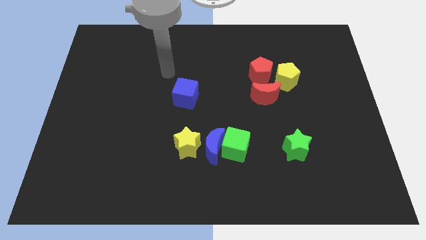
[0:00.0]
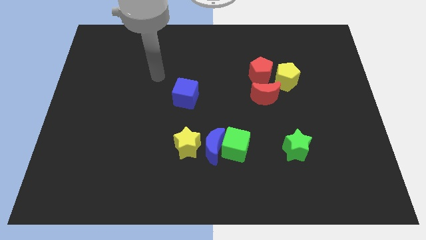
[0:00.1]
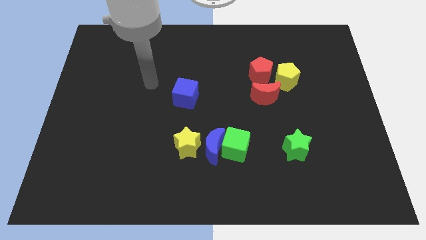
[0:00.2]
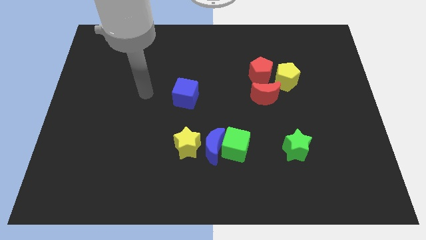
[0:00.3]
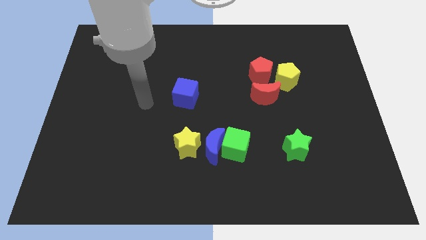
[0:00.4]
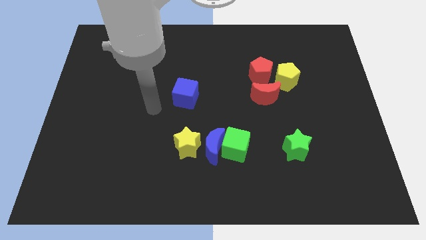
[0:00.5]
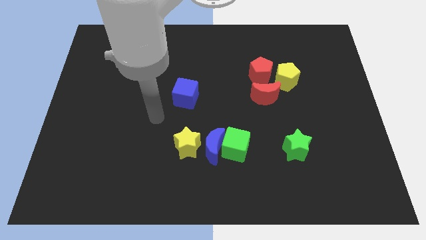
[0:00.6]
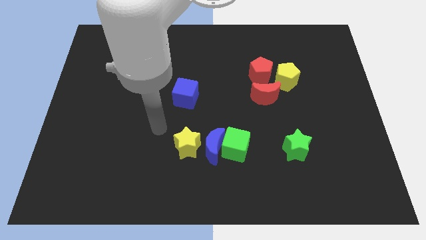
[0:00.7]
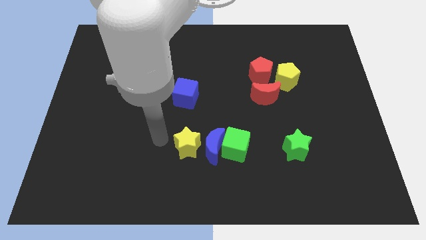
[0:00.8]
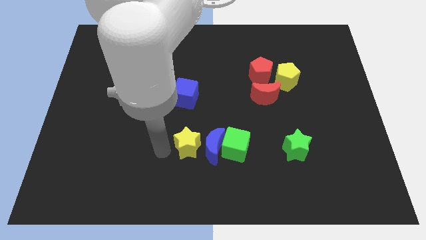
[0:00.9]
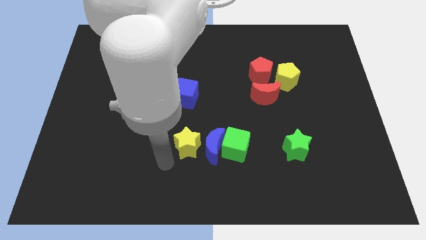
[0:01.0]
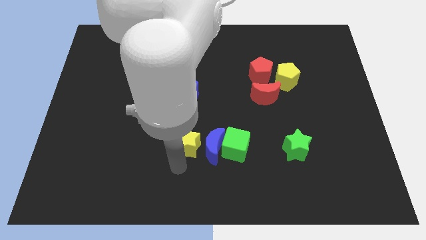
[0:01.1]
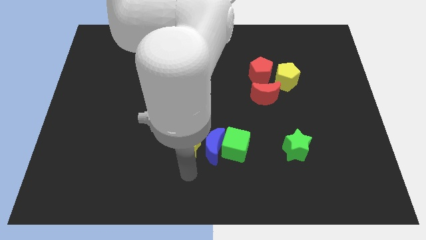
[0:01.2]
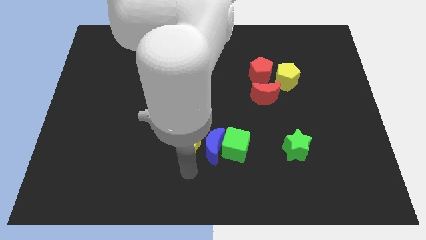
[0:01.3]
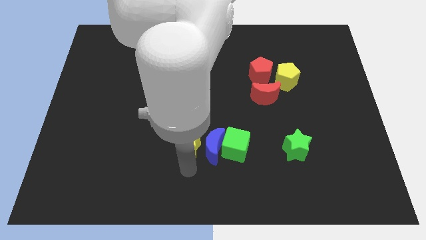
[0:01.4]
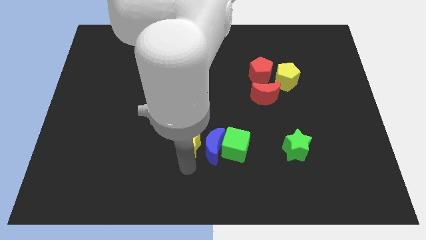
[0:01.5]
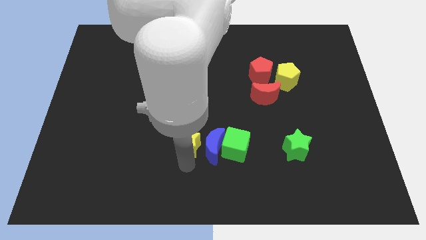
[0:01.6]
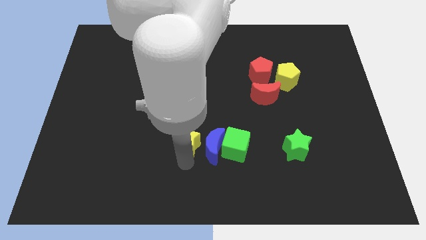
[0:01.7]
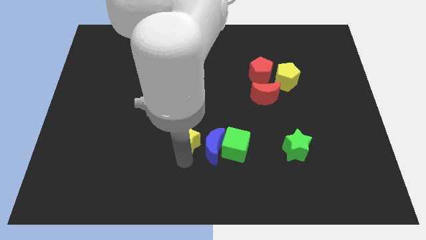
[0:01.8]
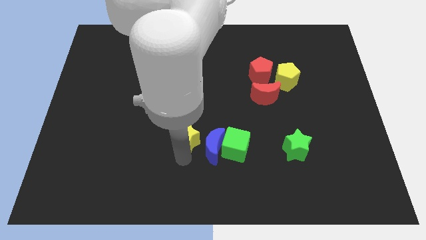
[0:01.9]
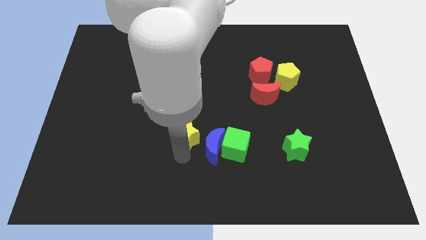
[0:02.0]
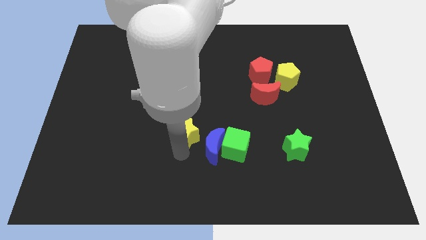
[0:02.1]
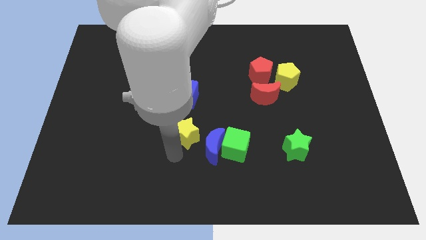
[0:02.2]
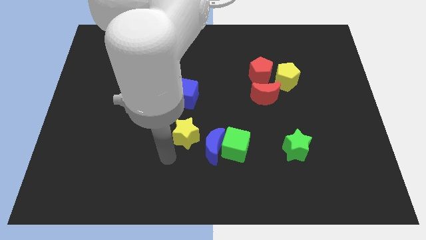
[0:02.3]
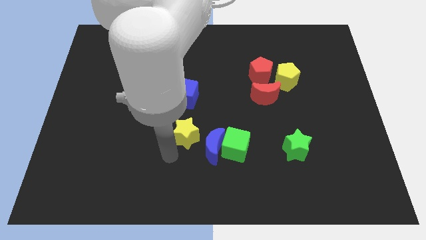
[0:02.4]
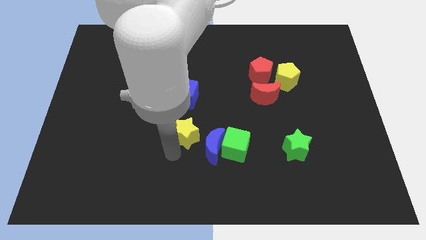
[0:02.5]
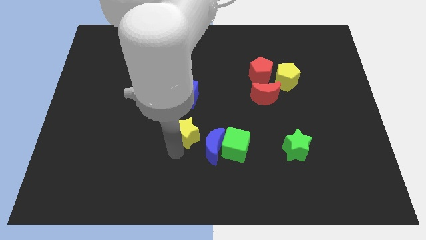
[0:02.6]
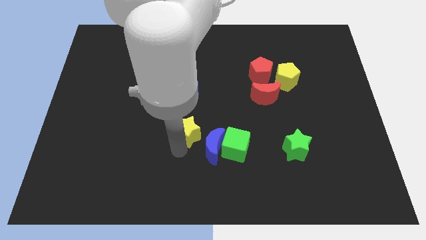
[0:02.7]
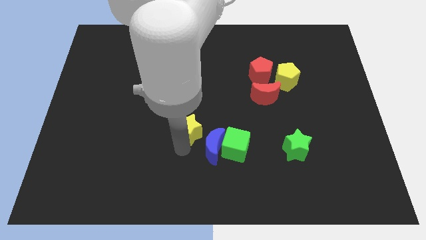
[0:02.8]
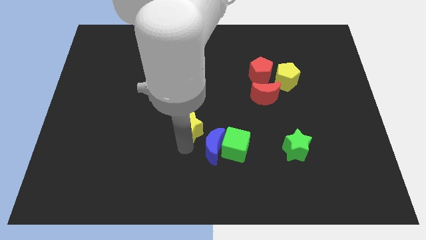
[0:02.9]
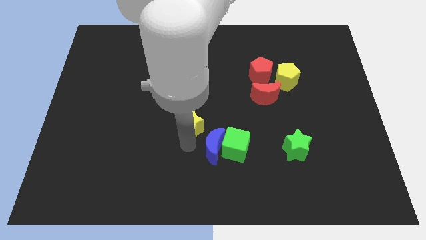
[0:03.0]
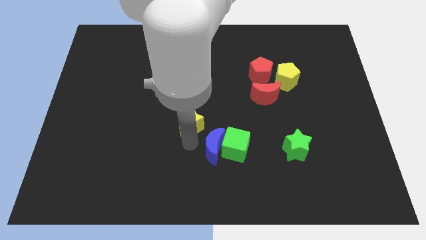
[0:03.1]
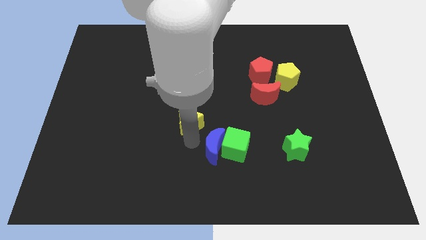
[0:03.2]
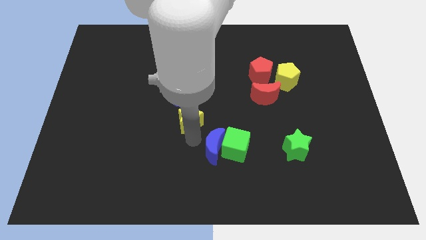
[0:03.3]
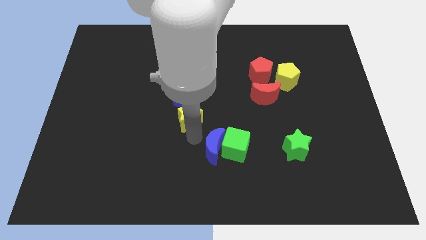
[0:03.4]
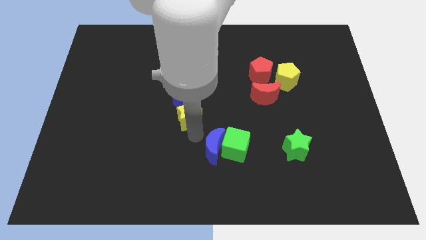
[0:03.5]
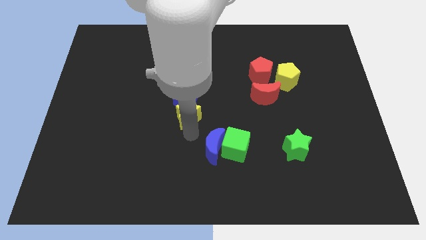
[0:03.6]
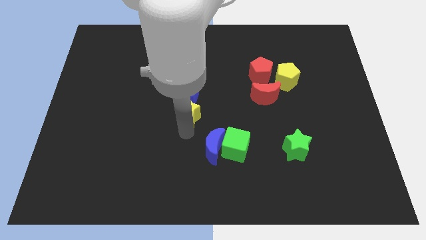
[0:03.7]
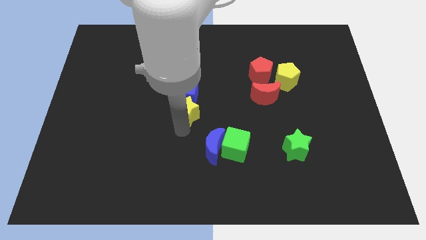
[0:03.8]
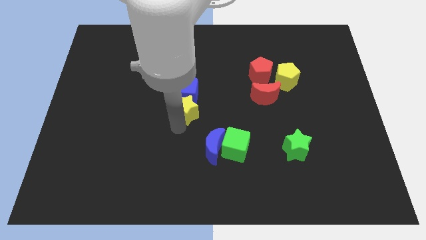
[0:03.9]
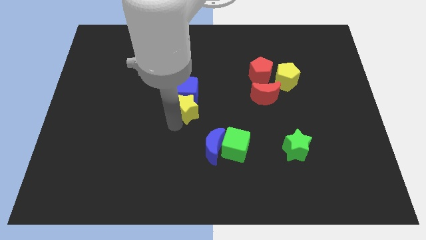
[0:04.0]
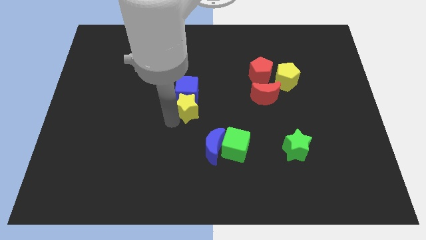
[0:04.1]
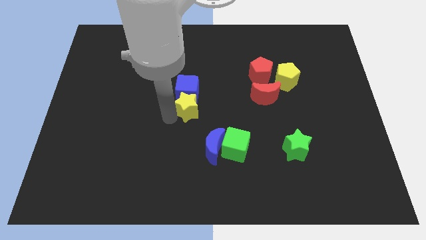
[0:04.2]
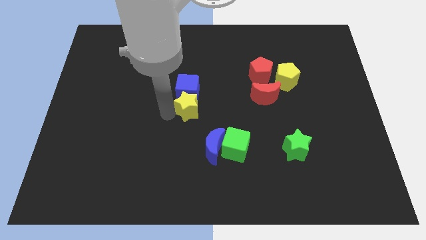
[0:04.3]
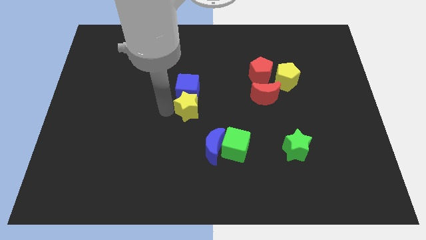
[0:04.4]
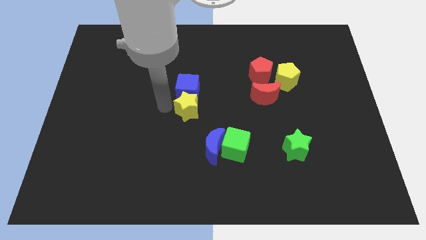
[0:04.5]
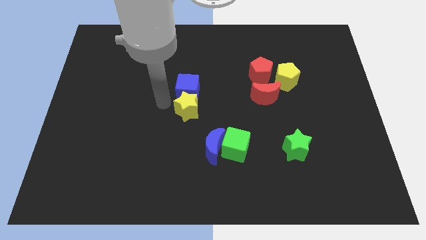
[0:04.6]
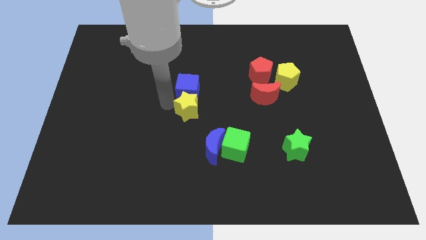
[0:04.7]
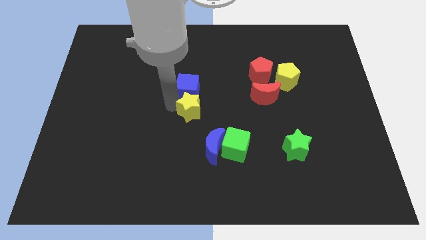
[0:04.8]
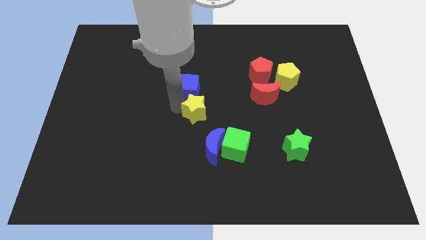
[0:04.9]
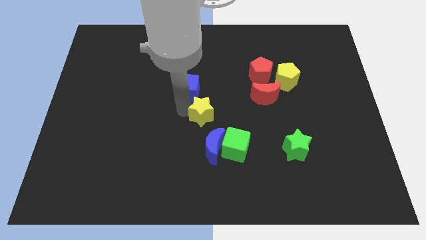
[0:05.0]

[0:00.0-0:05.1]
move the yellow star up and to the right slightly

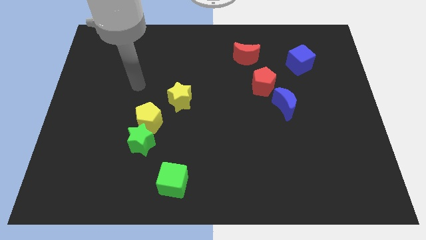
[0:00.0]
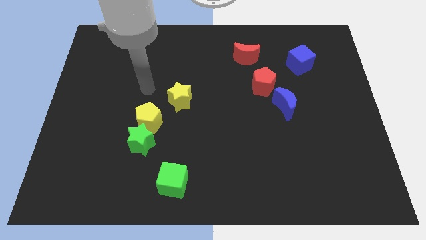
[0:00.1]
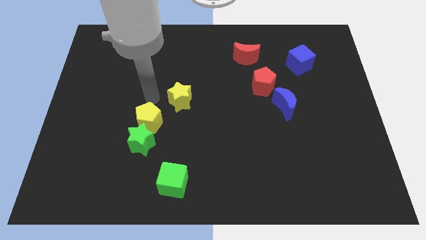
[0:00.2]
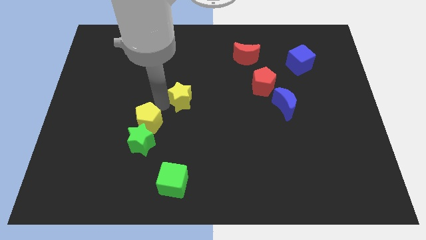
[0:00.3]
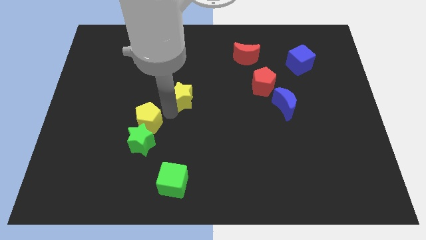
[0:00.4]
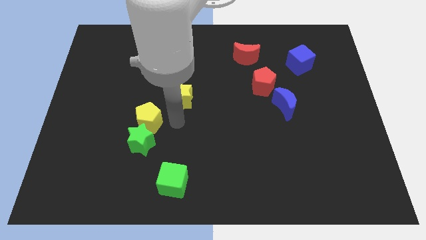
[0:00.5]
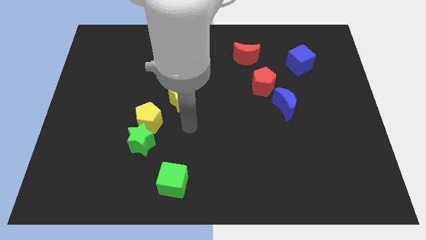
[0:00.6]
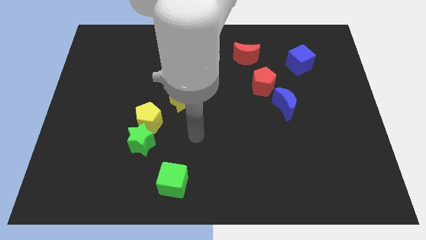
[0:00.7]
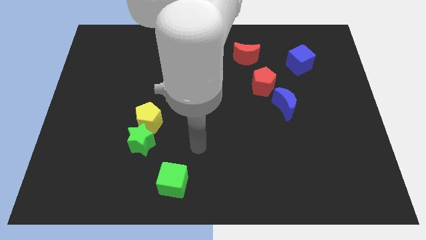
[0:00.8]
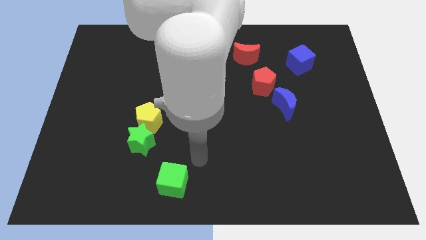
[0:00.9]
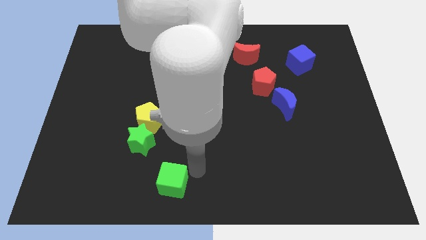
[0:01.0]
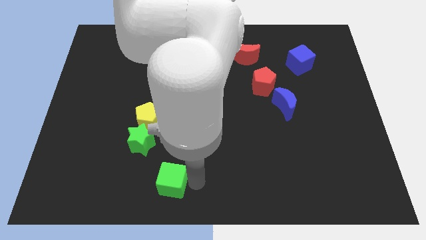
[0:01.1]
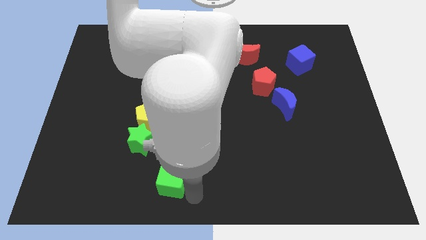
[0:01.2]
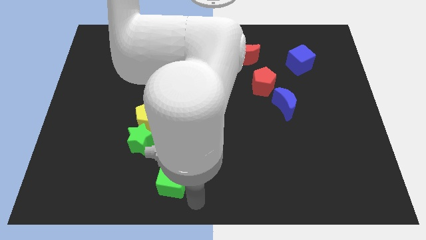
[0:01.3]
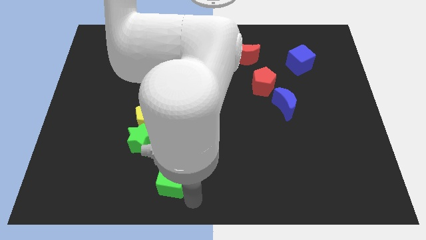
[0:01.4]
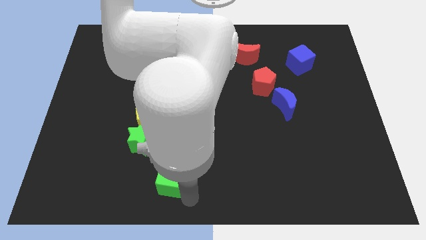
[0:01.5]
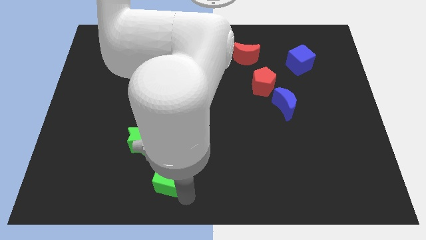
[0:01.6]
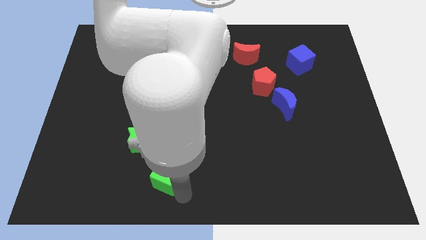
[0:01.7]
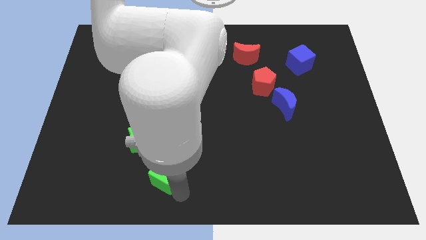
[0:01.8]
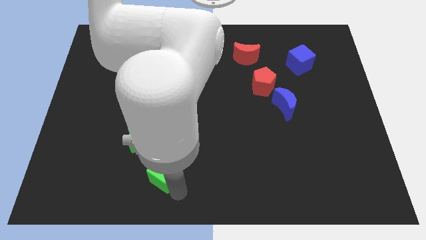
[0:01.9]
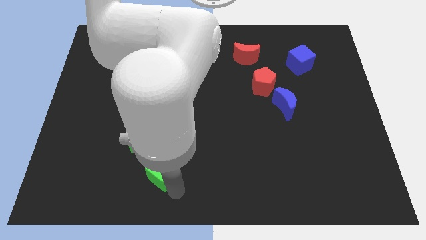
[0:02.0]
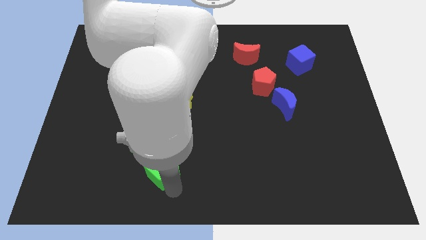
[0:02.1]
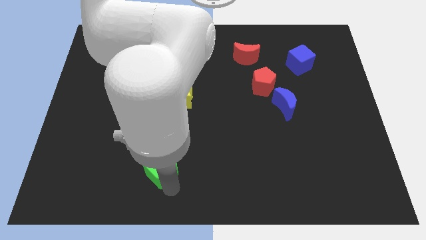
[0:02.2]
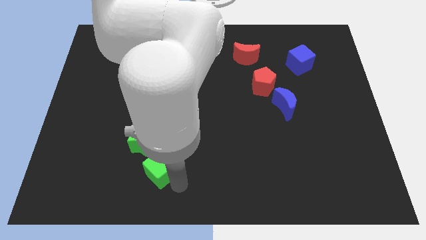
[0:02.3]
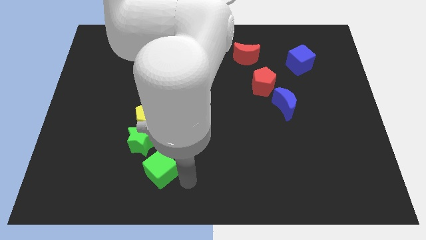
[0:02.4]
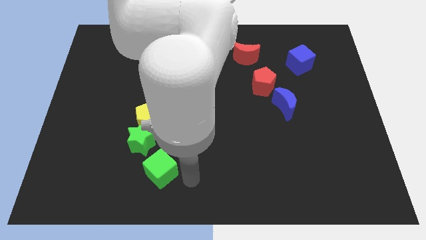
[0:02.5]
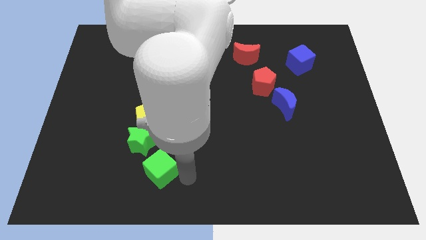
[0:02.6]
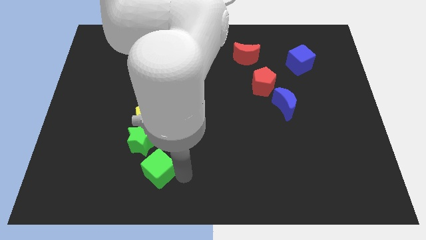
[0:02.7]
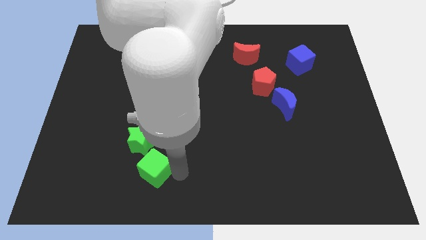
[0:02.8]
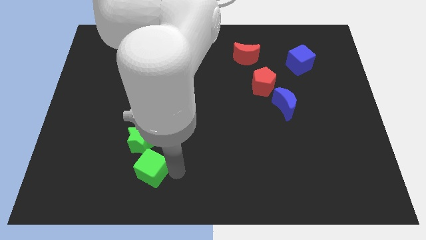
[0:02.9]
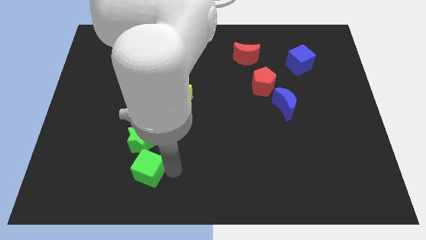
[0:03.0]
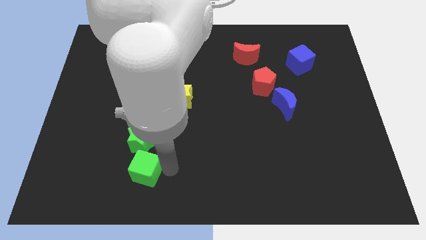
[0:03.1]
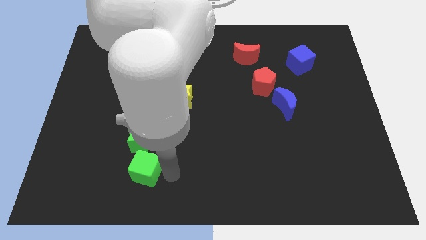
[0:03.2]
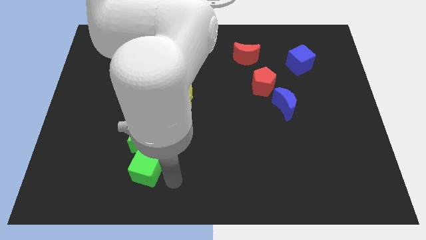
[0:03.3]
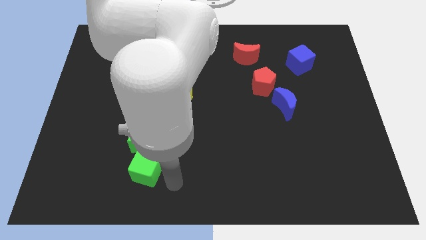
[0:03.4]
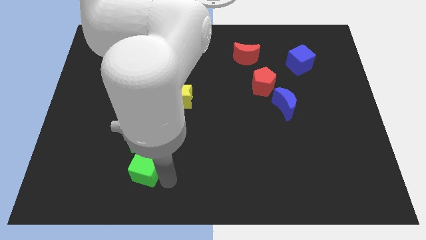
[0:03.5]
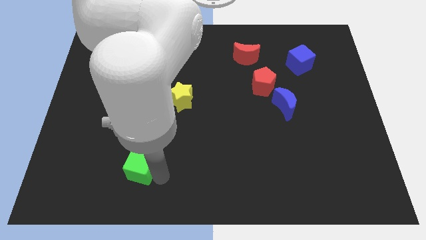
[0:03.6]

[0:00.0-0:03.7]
push the green cube slightly up and left
